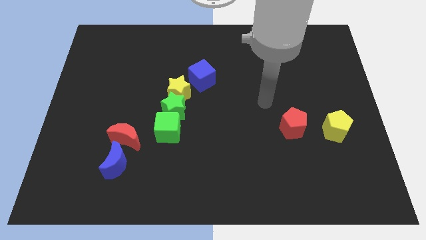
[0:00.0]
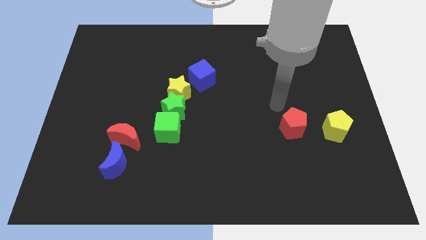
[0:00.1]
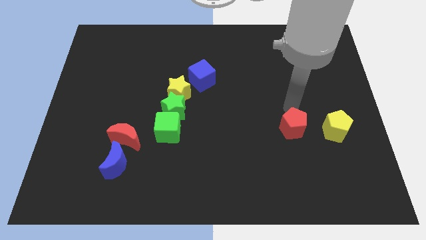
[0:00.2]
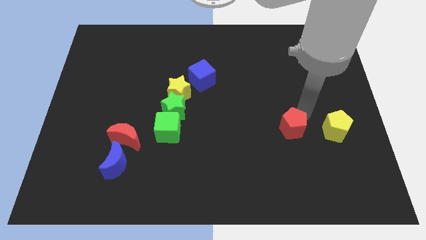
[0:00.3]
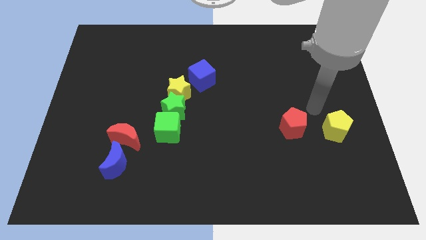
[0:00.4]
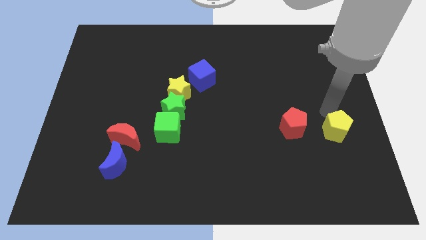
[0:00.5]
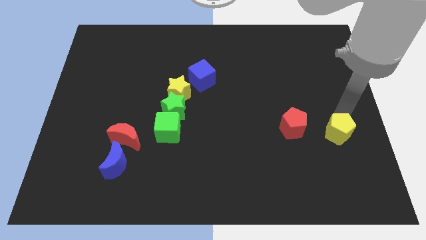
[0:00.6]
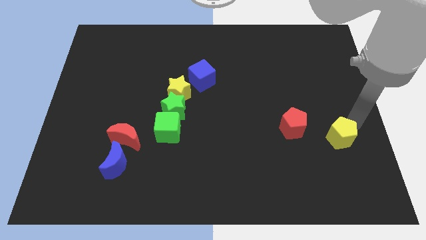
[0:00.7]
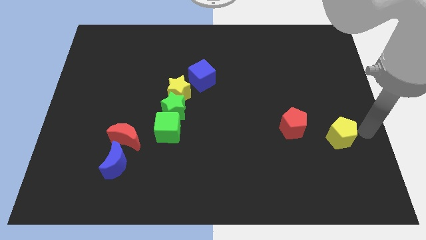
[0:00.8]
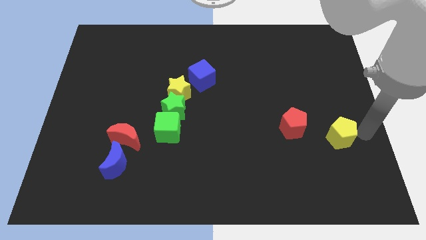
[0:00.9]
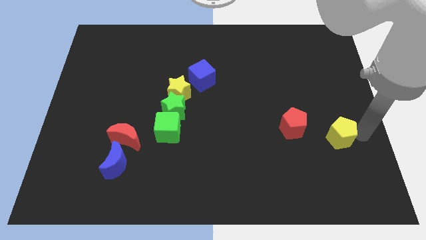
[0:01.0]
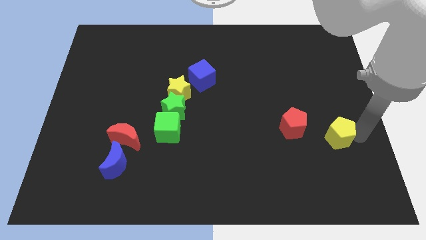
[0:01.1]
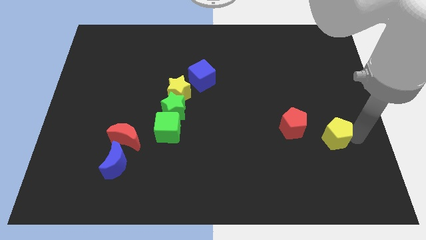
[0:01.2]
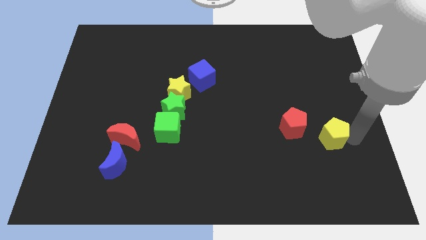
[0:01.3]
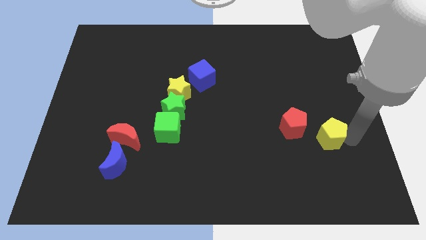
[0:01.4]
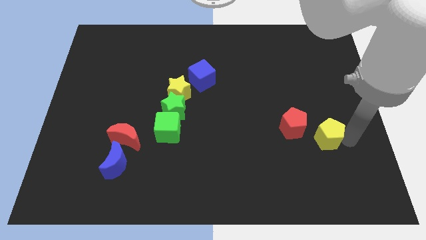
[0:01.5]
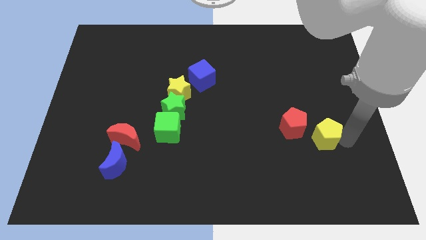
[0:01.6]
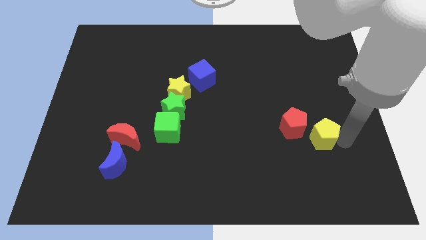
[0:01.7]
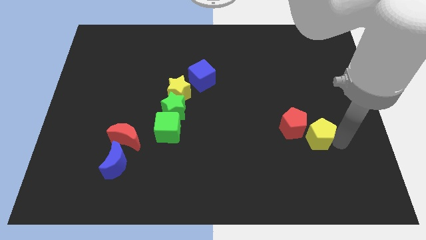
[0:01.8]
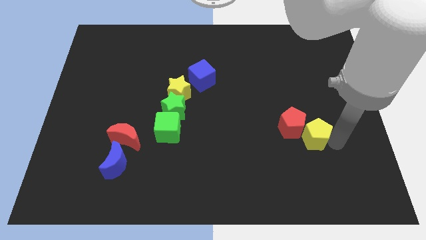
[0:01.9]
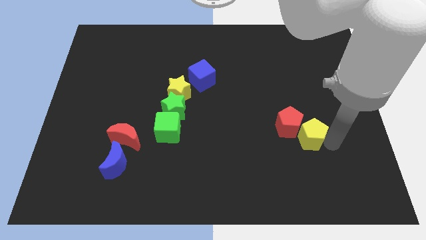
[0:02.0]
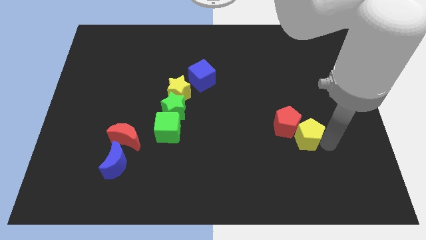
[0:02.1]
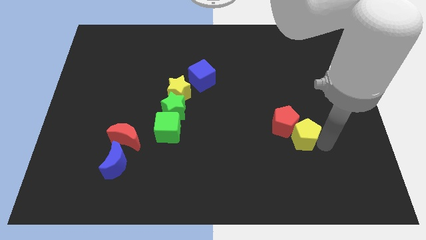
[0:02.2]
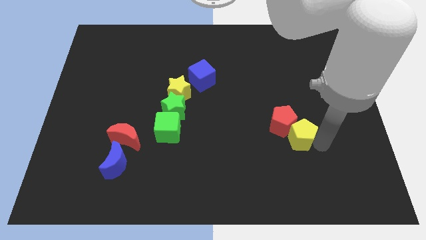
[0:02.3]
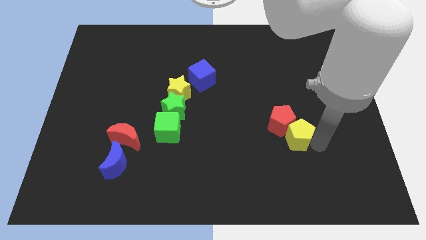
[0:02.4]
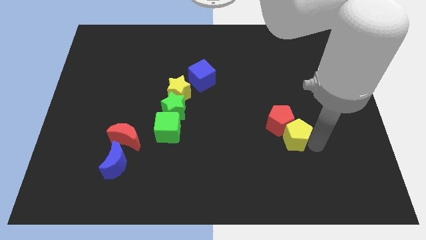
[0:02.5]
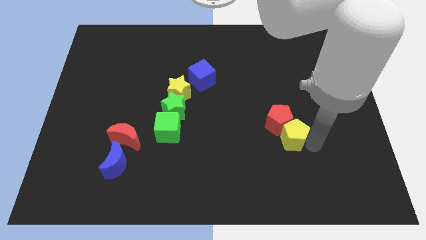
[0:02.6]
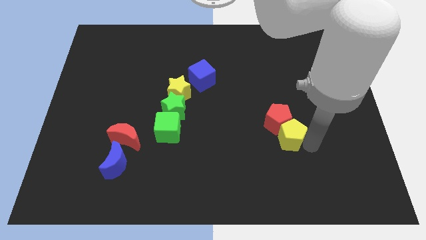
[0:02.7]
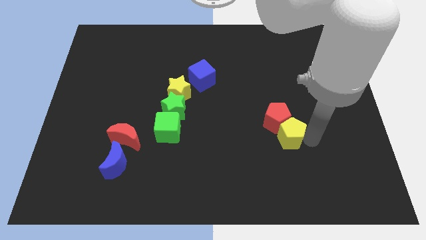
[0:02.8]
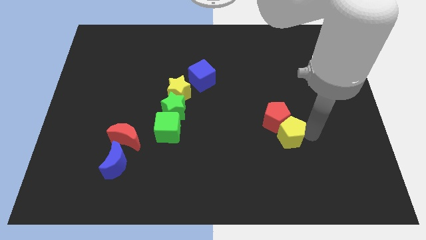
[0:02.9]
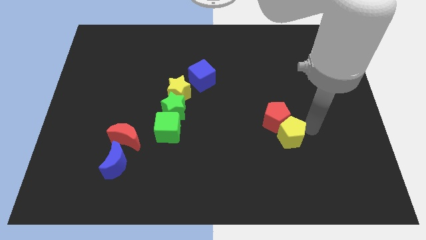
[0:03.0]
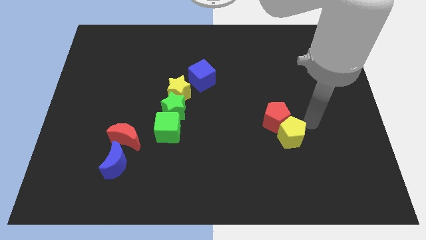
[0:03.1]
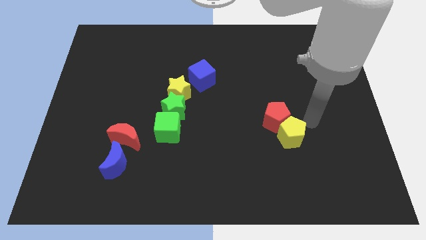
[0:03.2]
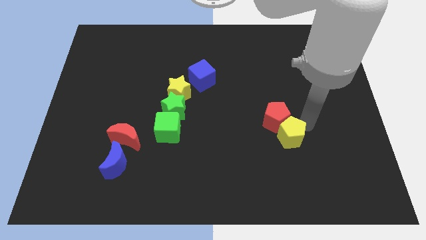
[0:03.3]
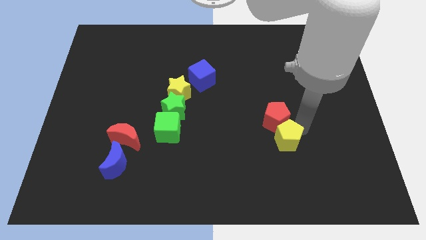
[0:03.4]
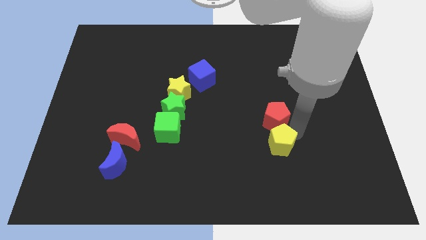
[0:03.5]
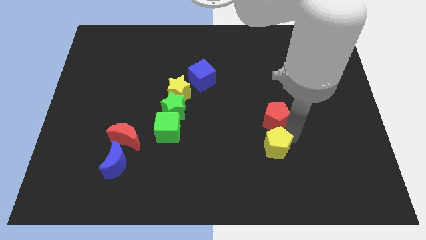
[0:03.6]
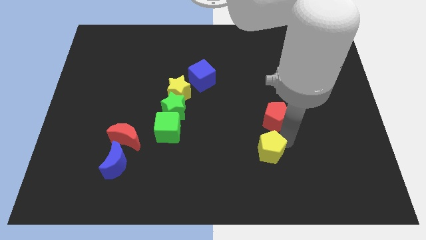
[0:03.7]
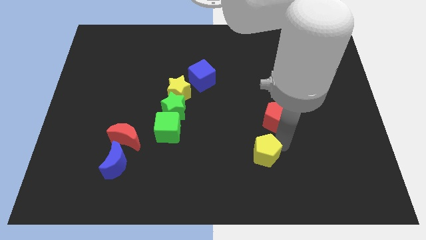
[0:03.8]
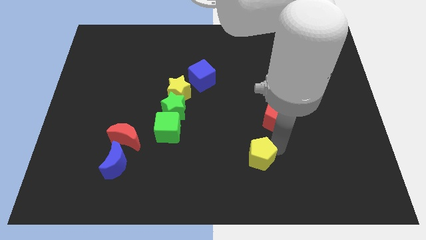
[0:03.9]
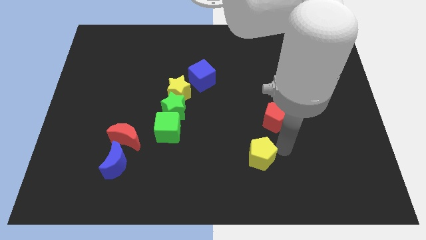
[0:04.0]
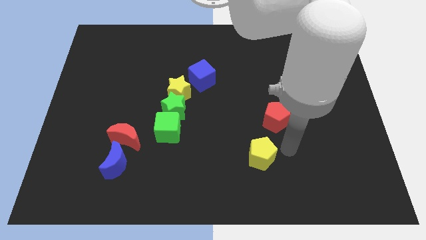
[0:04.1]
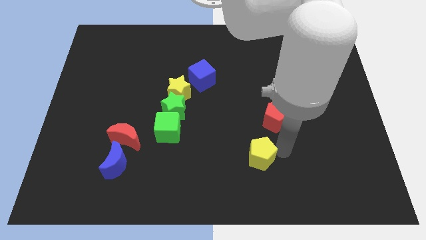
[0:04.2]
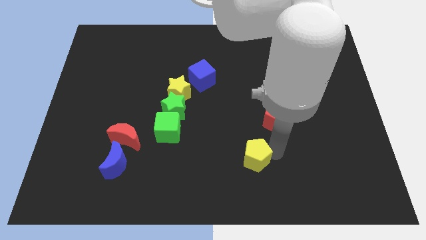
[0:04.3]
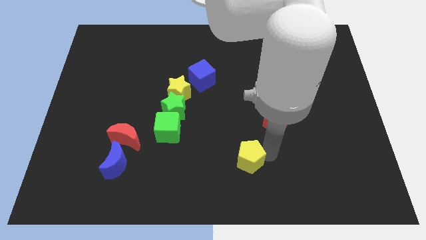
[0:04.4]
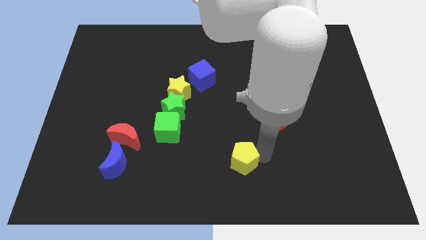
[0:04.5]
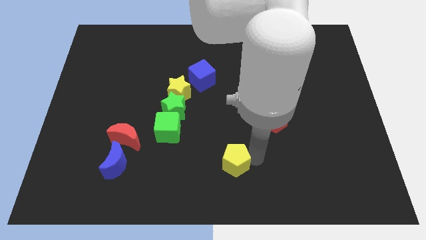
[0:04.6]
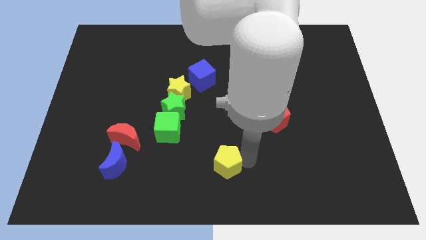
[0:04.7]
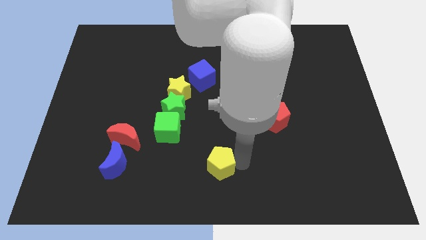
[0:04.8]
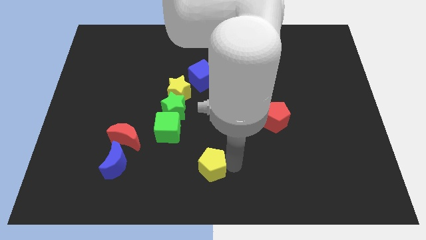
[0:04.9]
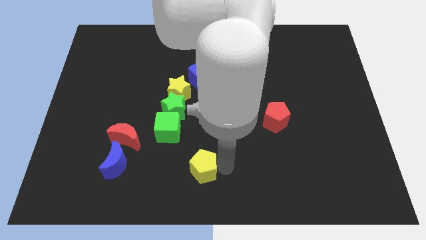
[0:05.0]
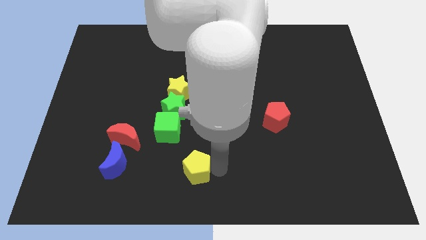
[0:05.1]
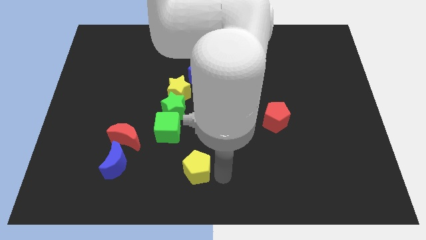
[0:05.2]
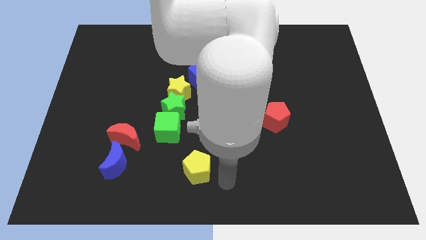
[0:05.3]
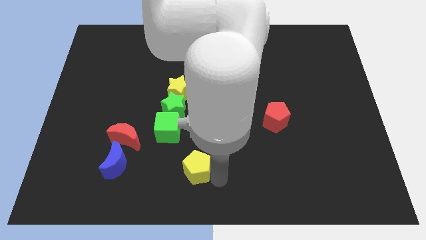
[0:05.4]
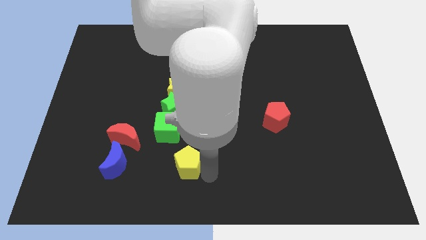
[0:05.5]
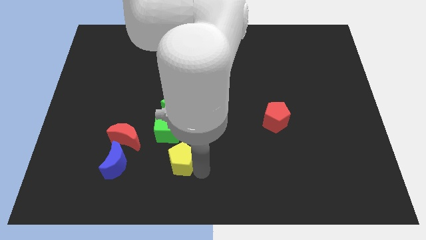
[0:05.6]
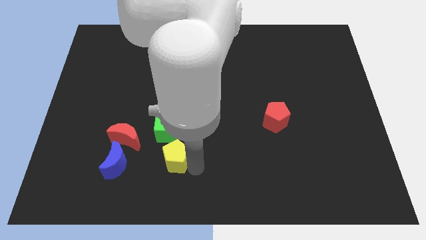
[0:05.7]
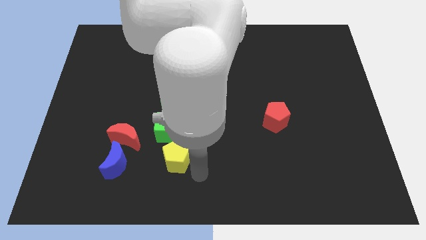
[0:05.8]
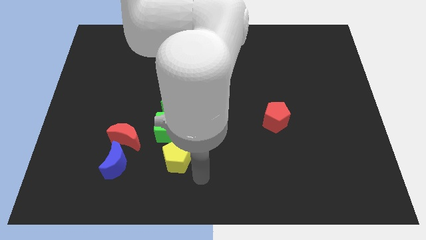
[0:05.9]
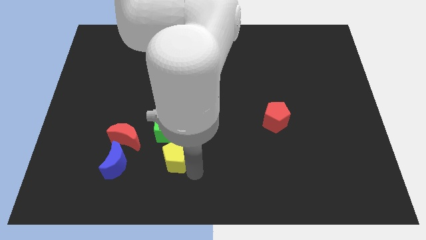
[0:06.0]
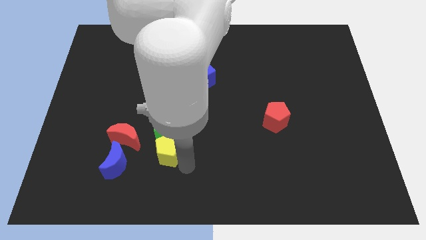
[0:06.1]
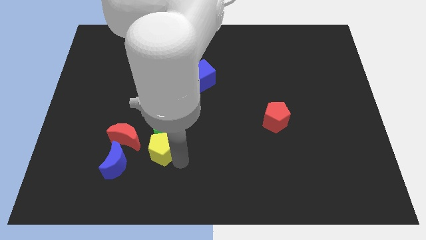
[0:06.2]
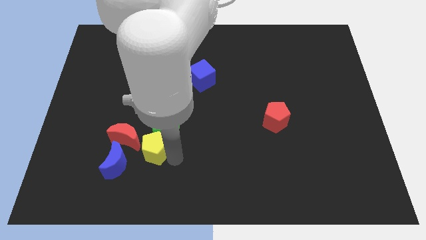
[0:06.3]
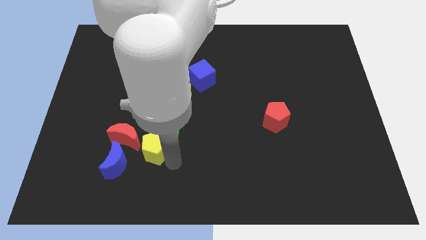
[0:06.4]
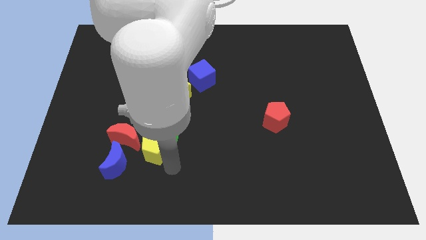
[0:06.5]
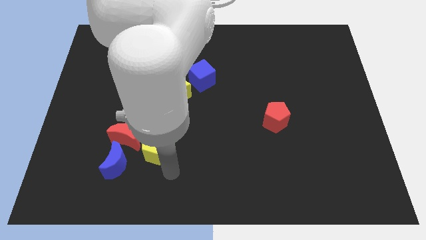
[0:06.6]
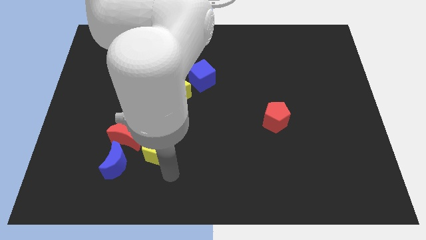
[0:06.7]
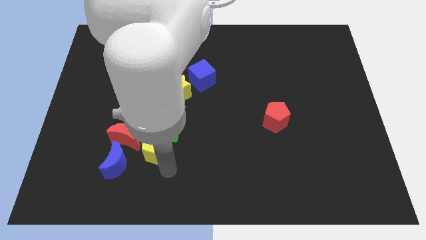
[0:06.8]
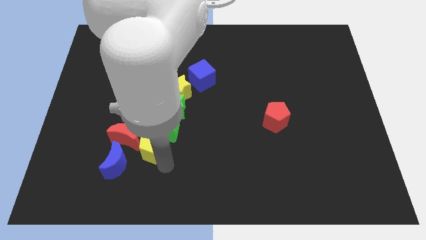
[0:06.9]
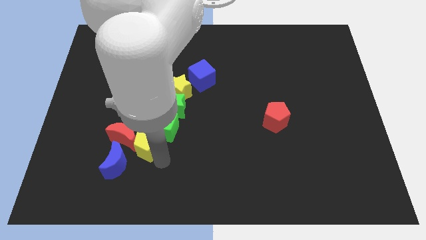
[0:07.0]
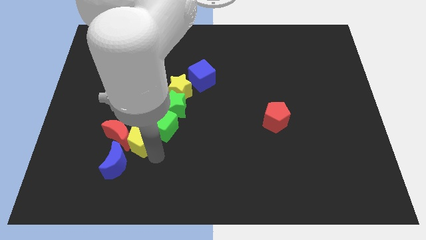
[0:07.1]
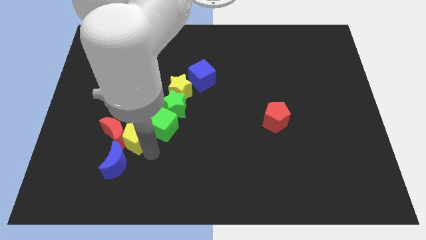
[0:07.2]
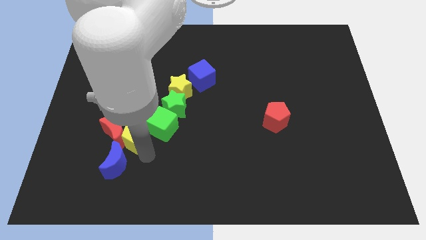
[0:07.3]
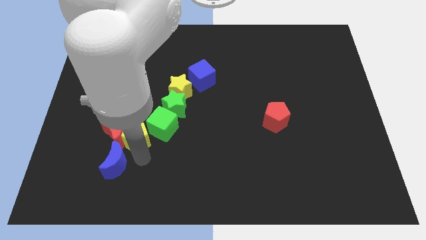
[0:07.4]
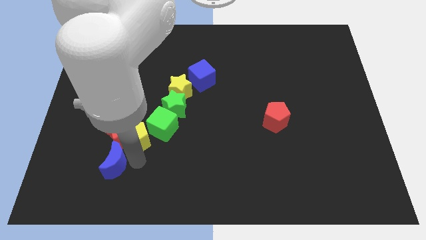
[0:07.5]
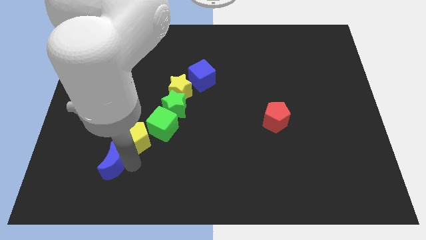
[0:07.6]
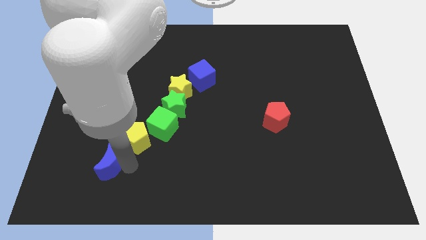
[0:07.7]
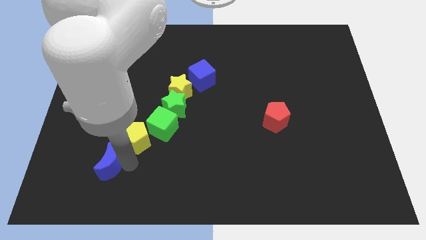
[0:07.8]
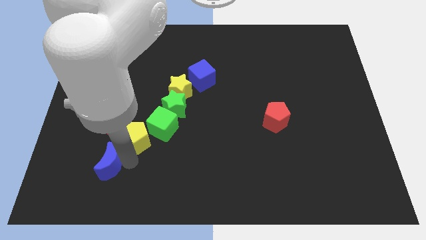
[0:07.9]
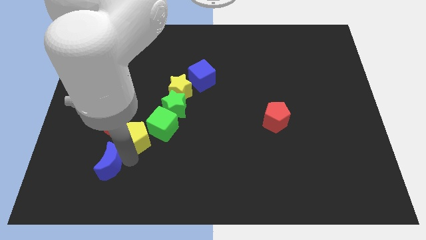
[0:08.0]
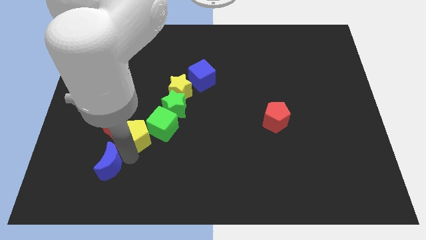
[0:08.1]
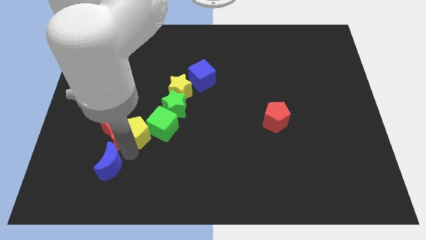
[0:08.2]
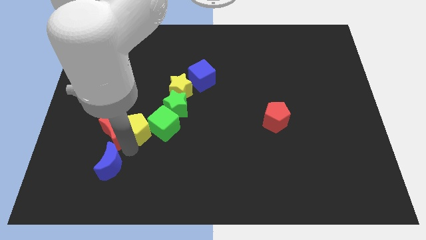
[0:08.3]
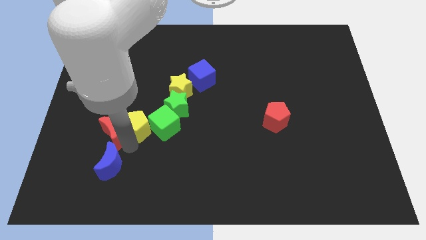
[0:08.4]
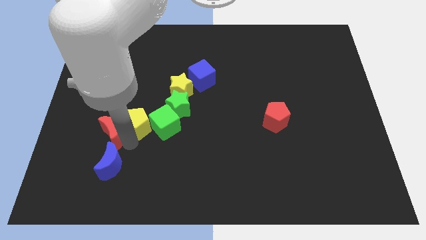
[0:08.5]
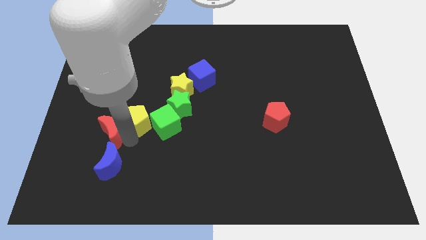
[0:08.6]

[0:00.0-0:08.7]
move the yellow pentagon to the left of the green star
